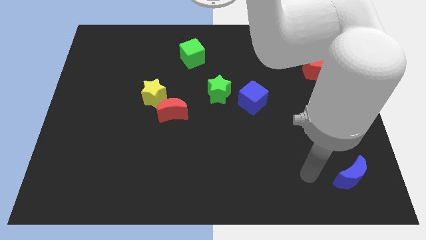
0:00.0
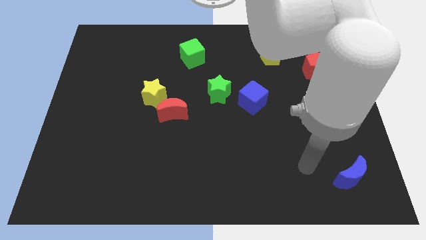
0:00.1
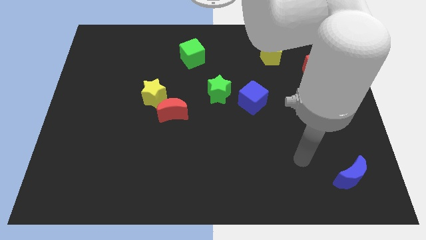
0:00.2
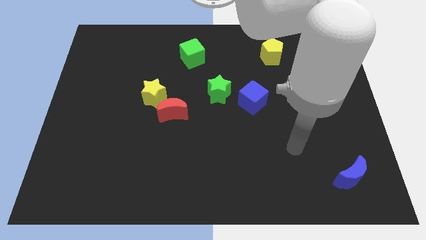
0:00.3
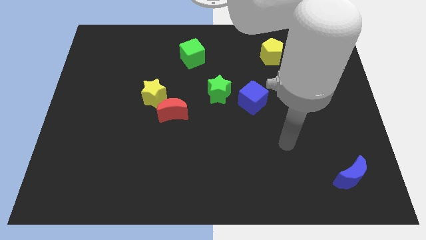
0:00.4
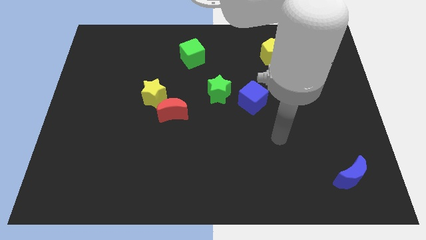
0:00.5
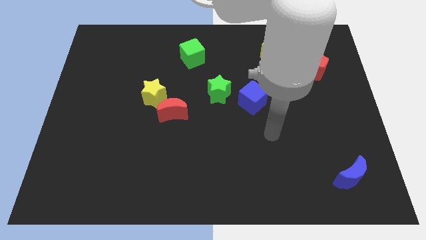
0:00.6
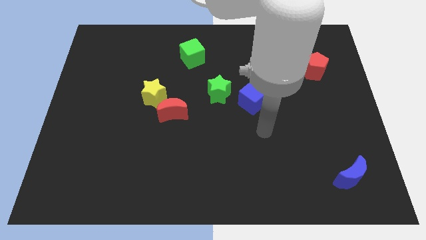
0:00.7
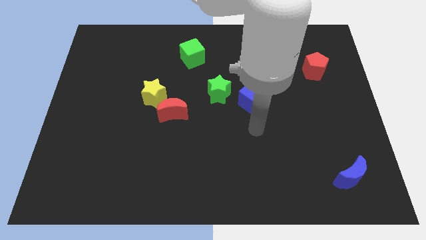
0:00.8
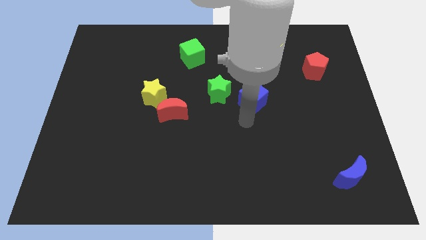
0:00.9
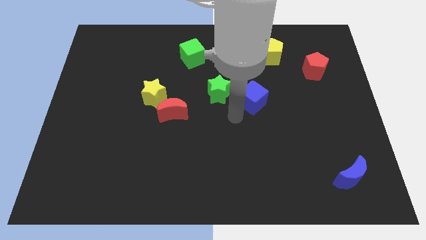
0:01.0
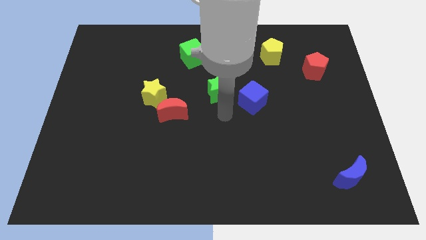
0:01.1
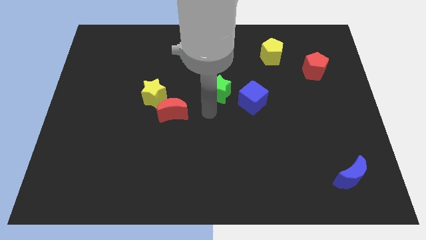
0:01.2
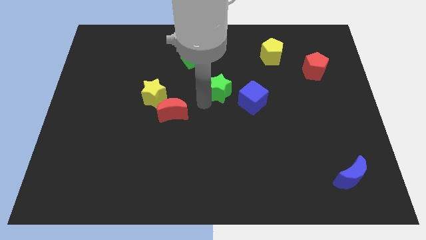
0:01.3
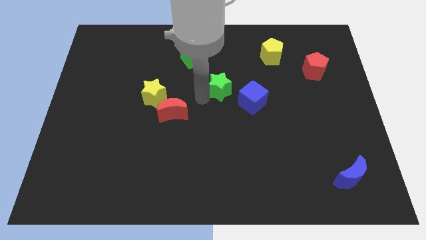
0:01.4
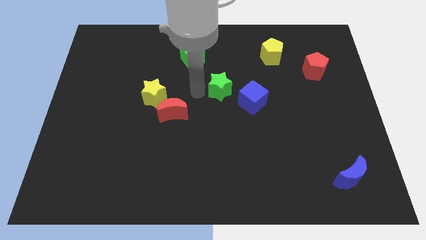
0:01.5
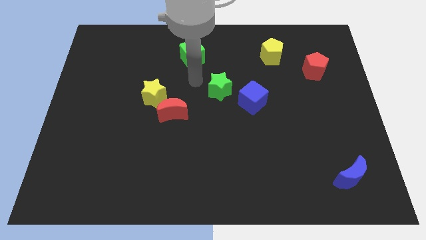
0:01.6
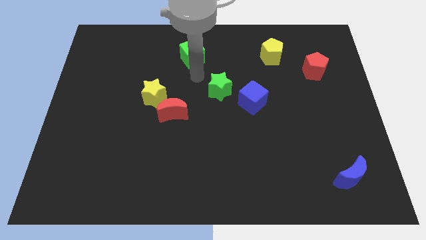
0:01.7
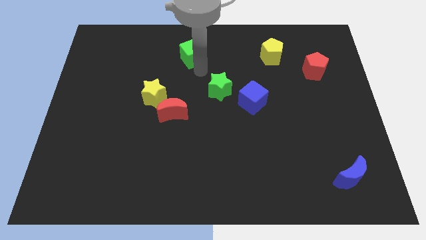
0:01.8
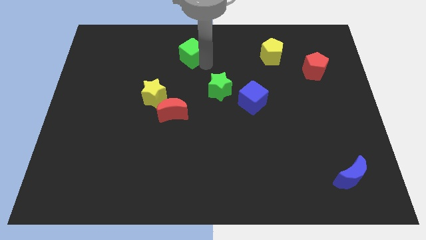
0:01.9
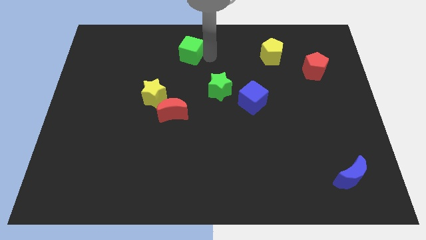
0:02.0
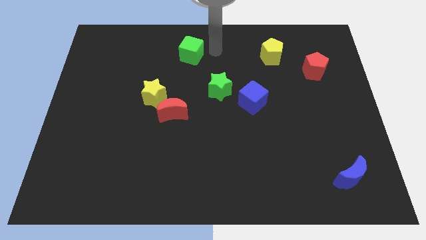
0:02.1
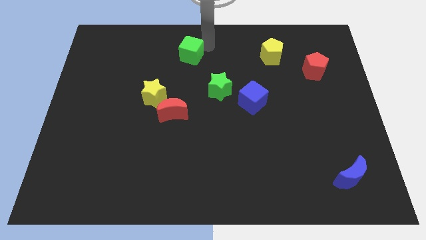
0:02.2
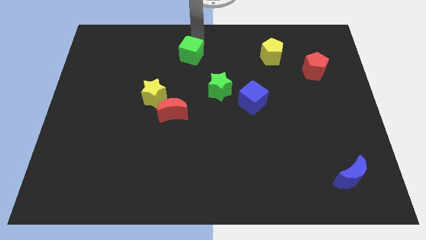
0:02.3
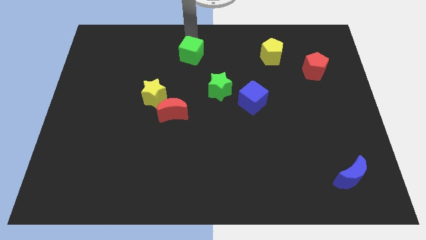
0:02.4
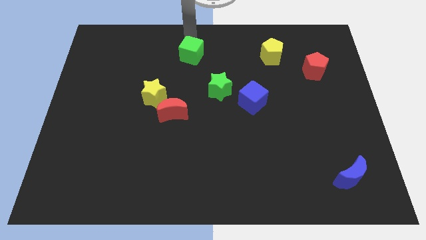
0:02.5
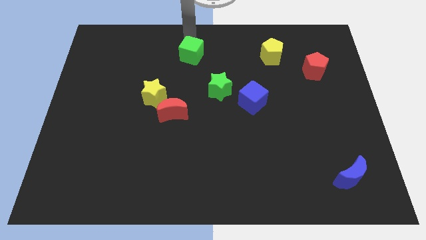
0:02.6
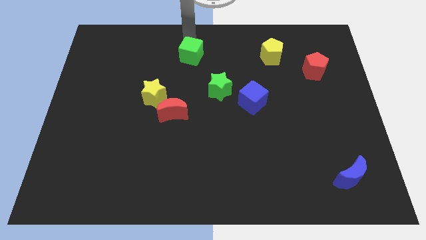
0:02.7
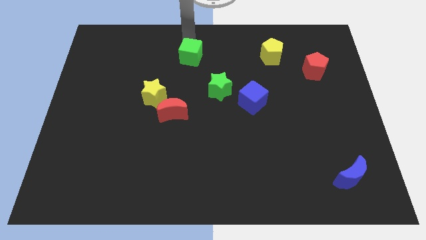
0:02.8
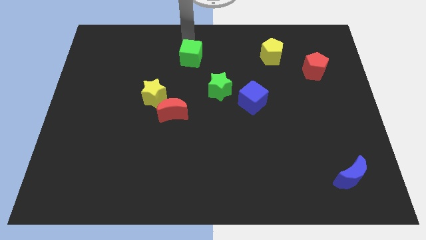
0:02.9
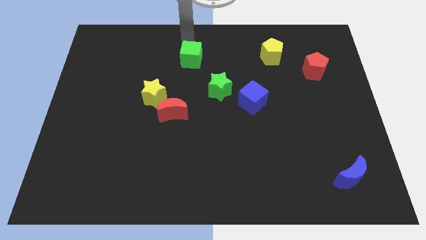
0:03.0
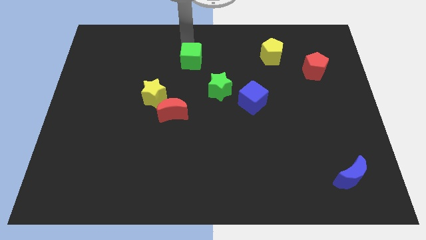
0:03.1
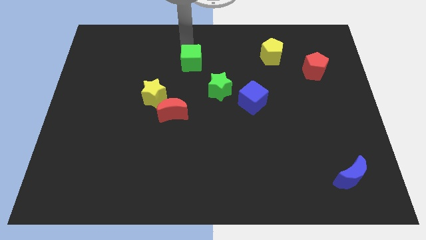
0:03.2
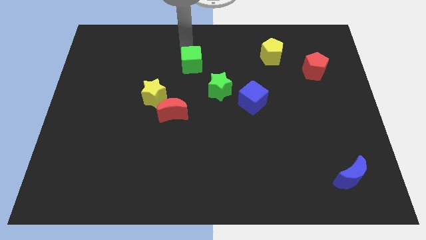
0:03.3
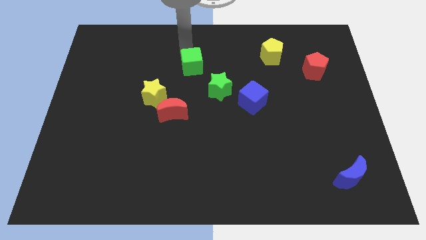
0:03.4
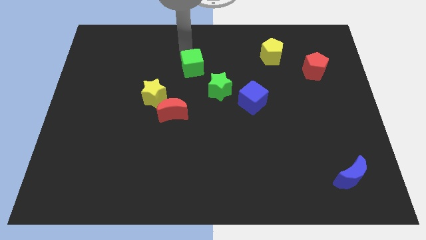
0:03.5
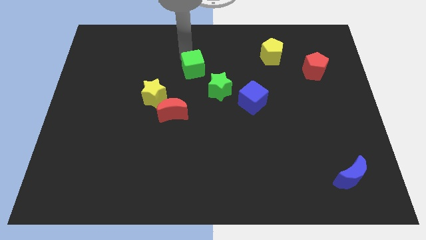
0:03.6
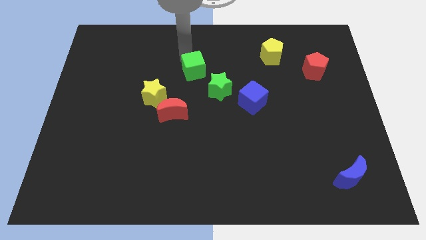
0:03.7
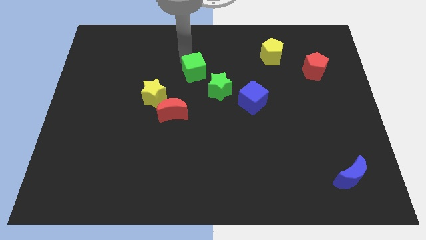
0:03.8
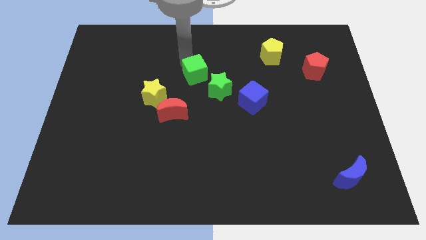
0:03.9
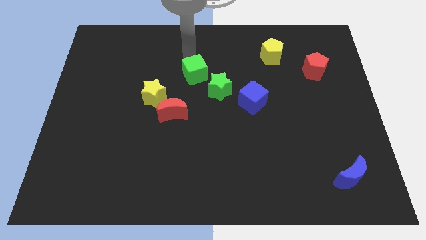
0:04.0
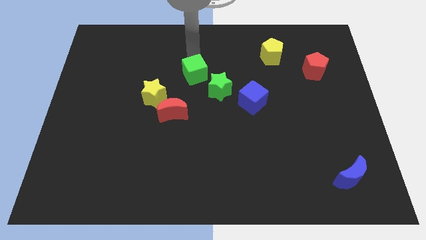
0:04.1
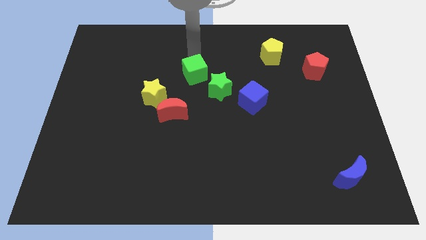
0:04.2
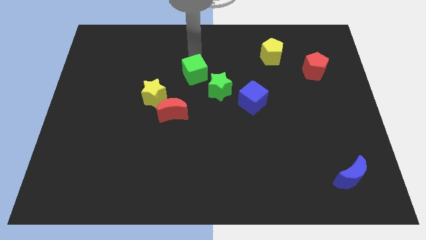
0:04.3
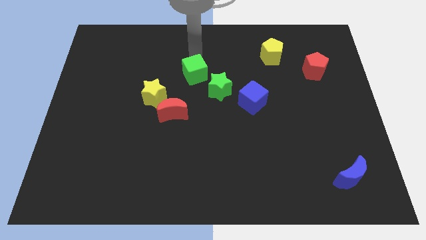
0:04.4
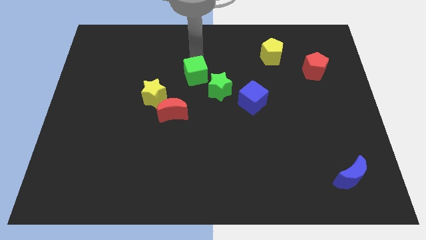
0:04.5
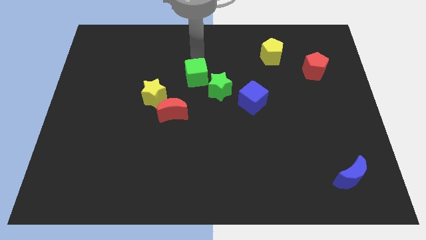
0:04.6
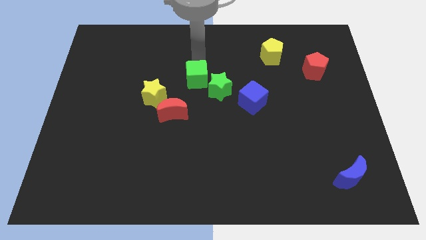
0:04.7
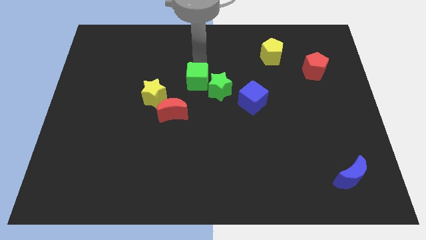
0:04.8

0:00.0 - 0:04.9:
push the green cube to the top right of the red moon

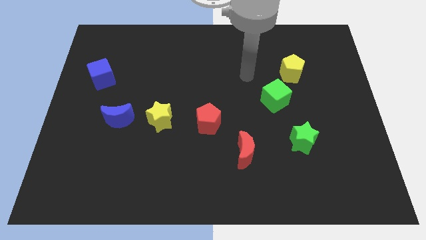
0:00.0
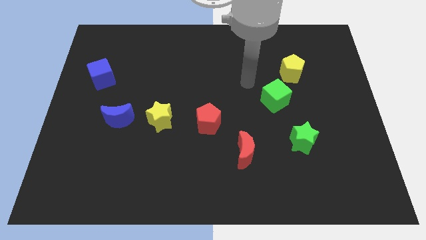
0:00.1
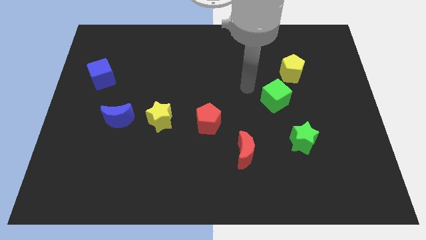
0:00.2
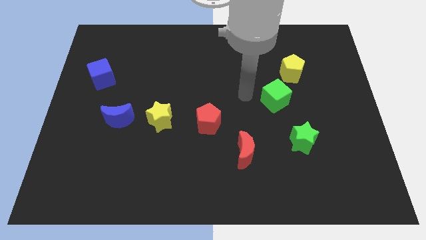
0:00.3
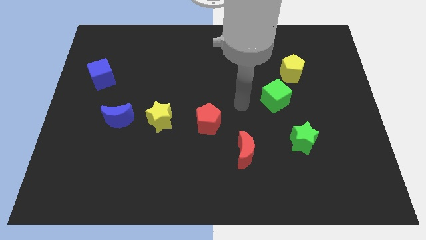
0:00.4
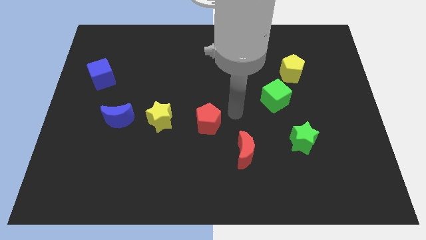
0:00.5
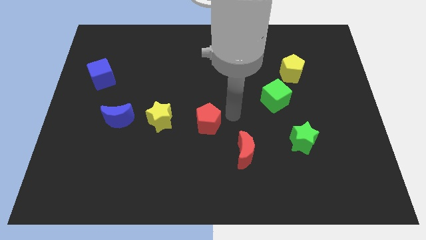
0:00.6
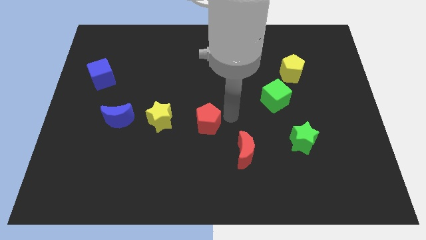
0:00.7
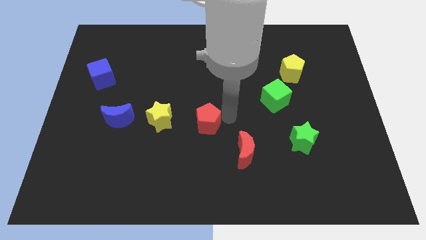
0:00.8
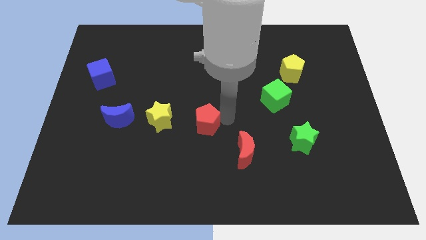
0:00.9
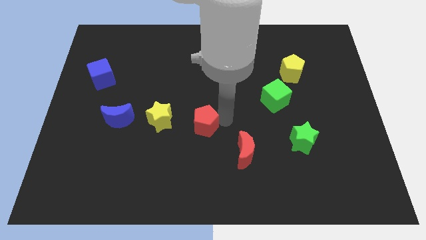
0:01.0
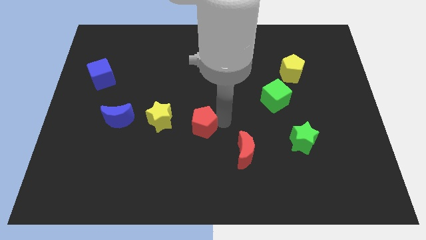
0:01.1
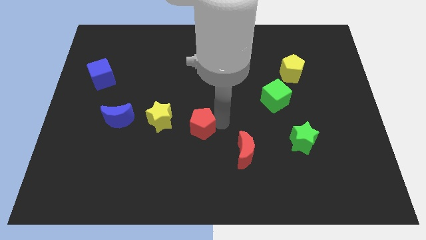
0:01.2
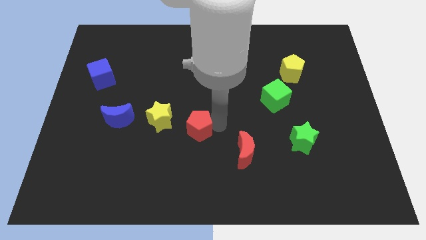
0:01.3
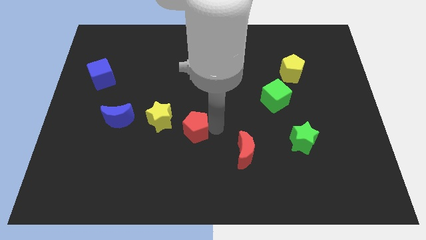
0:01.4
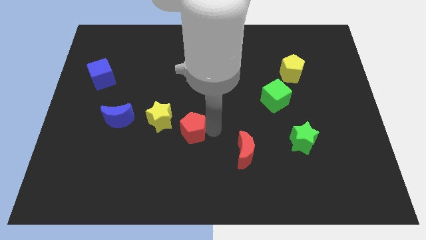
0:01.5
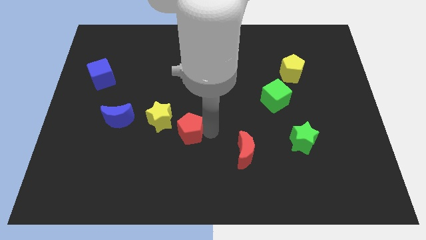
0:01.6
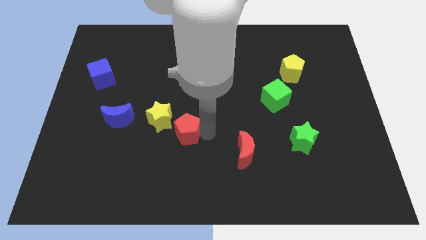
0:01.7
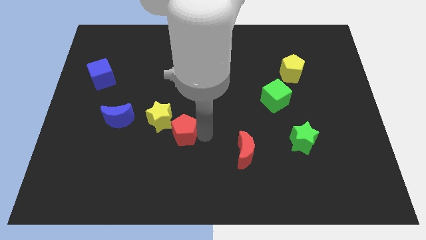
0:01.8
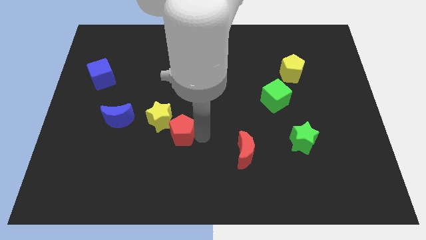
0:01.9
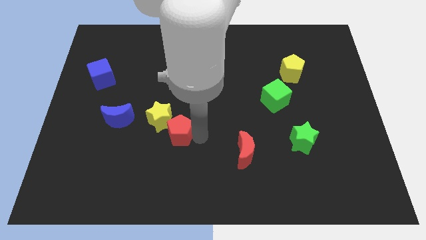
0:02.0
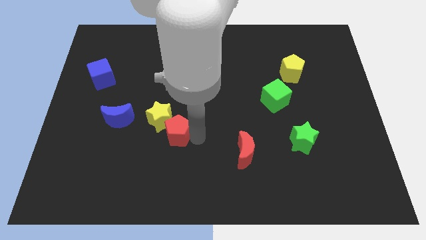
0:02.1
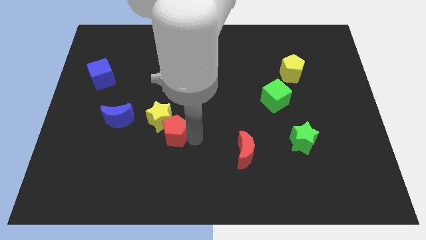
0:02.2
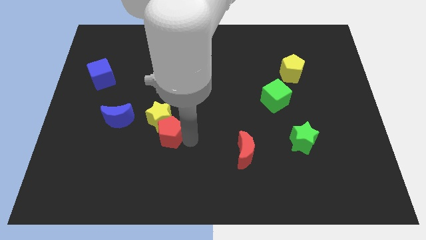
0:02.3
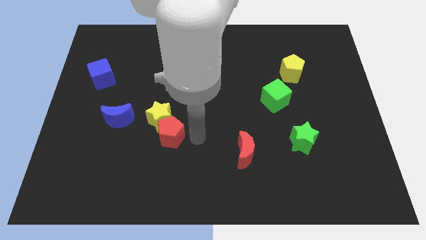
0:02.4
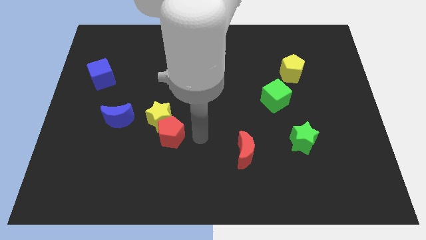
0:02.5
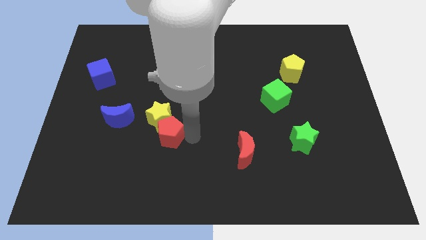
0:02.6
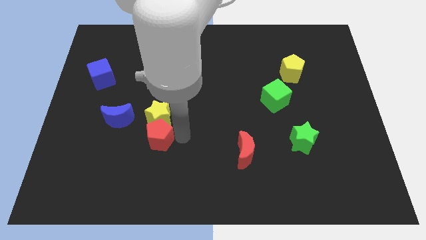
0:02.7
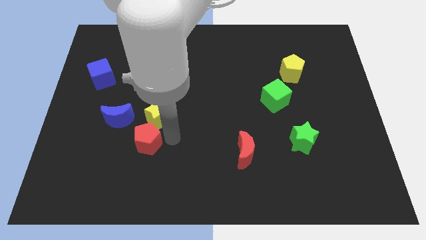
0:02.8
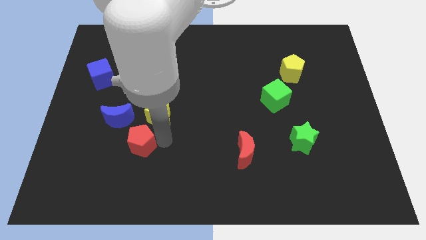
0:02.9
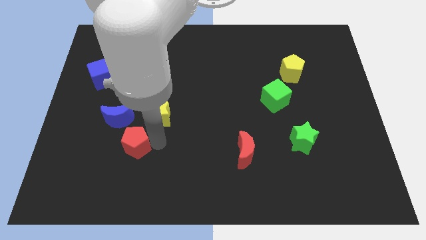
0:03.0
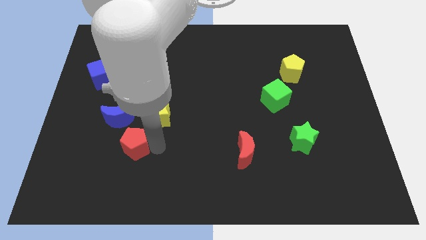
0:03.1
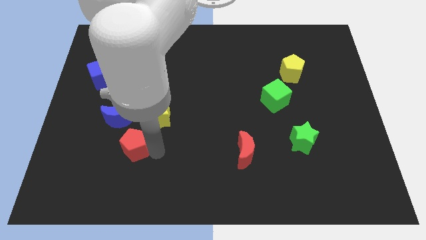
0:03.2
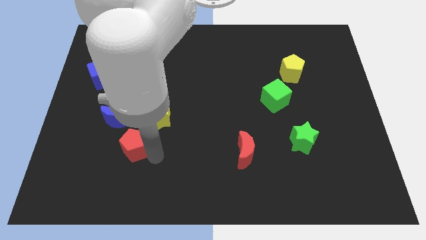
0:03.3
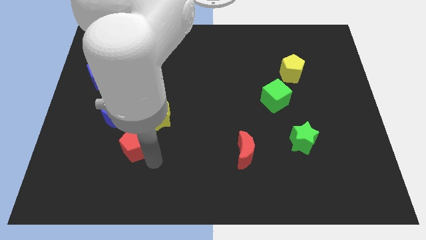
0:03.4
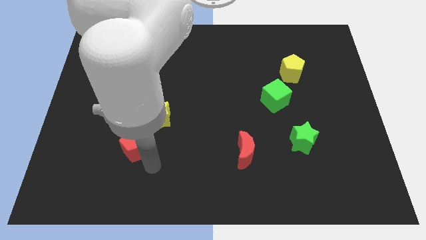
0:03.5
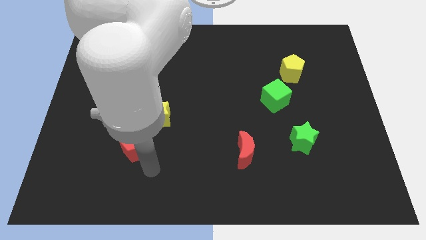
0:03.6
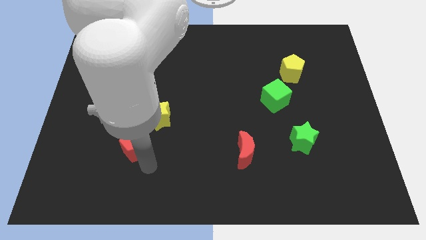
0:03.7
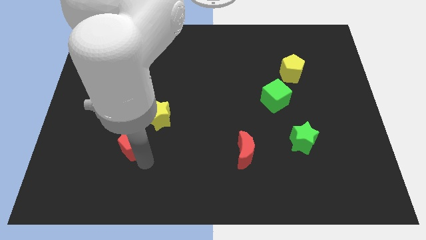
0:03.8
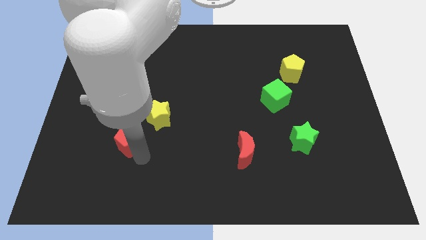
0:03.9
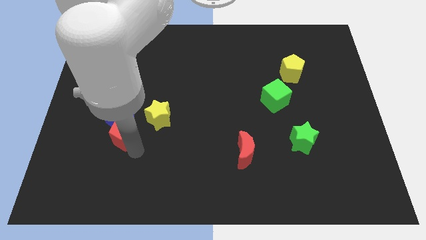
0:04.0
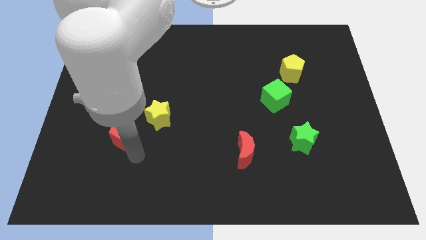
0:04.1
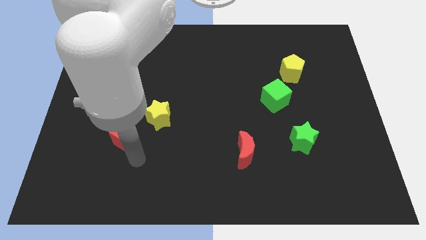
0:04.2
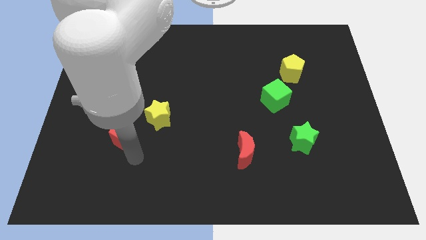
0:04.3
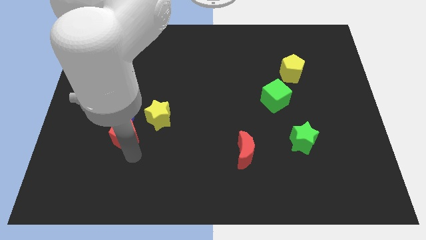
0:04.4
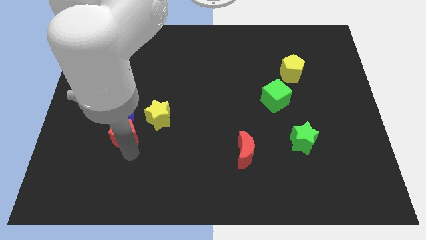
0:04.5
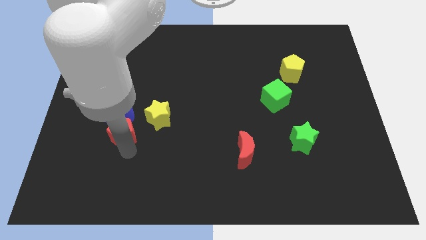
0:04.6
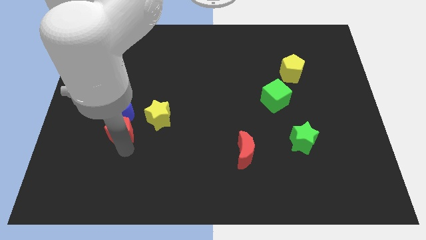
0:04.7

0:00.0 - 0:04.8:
push the red pentagon just left of the yellow star
